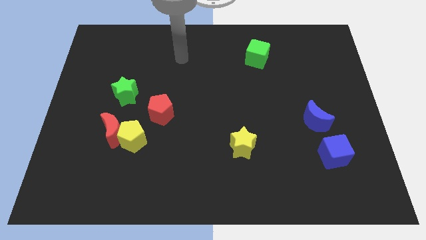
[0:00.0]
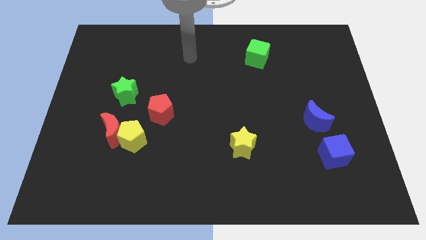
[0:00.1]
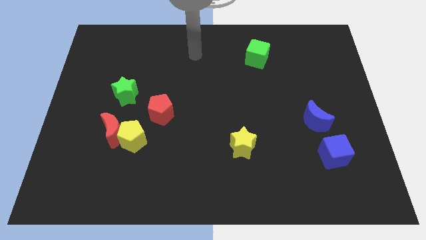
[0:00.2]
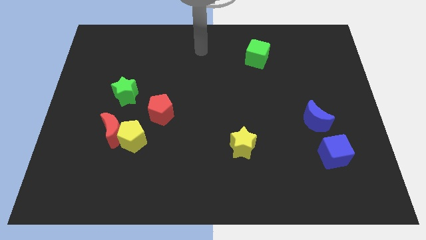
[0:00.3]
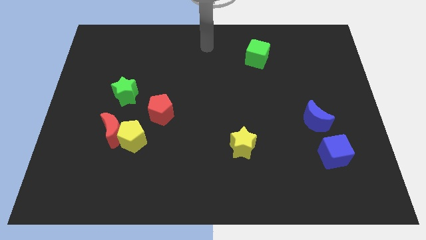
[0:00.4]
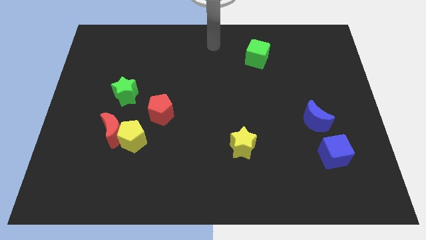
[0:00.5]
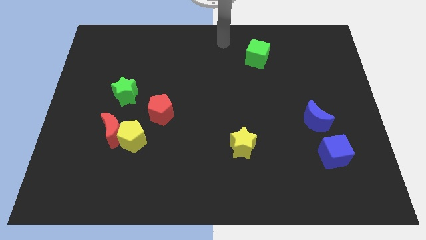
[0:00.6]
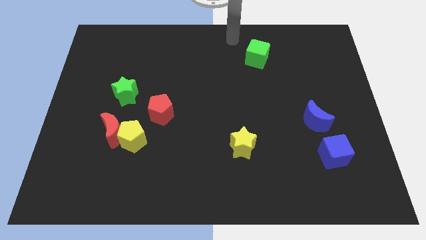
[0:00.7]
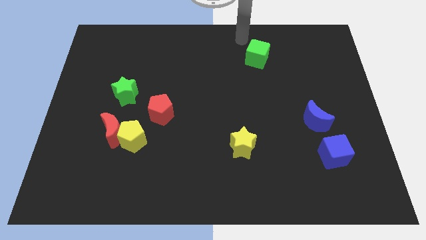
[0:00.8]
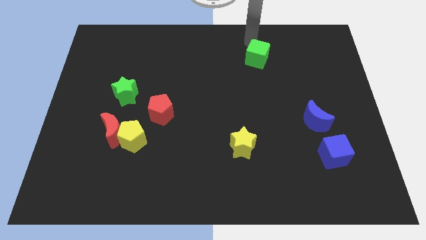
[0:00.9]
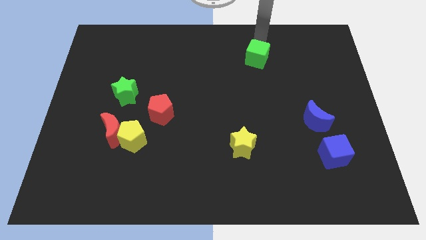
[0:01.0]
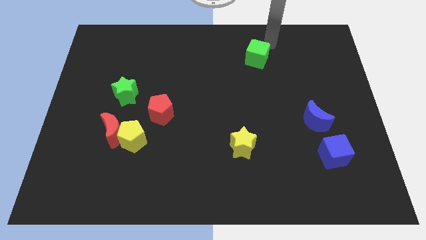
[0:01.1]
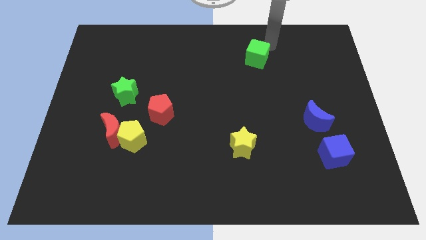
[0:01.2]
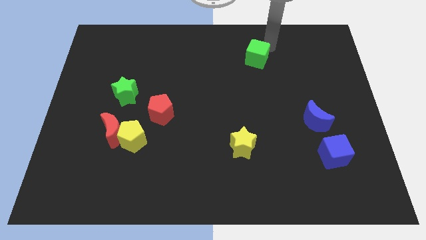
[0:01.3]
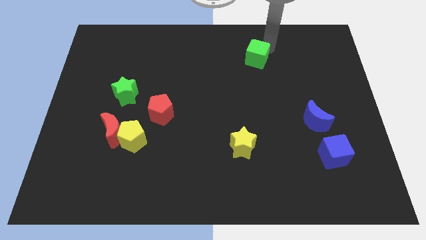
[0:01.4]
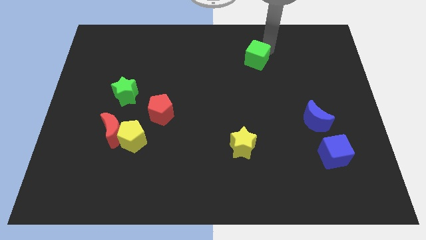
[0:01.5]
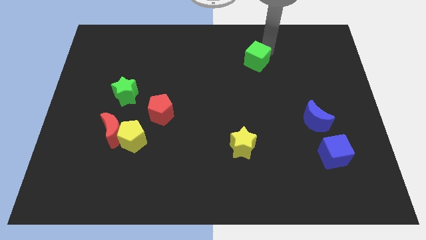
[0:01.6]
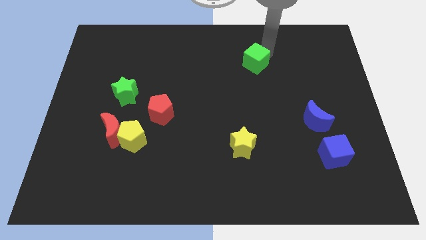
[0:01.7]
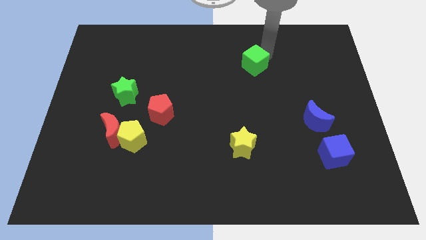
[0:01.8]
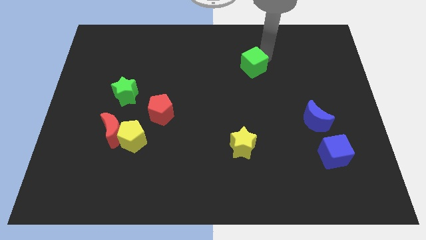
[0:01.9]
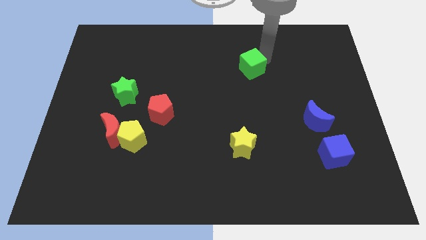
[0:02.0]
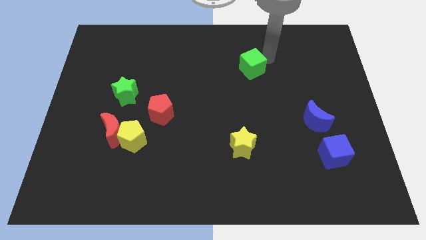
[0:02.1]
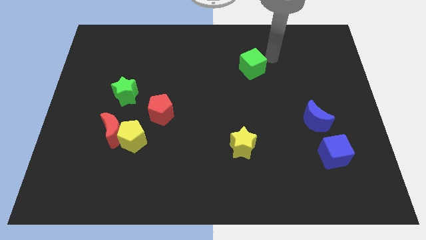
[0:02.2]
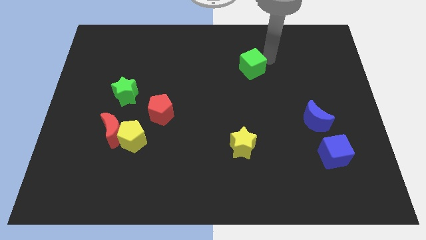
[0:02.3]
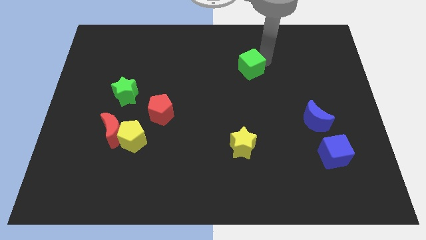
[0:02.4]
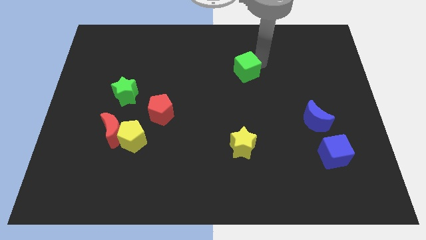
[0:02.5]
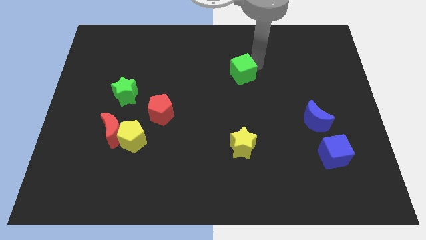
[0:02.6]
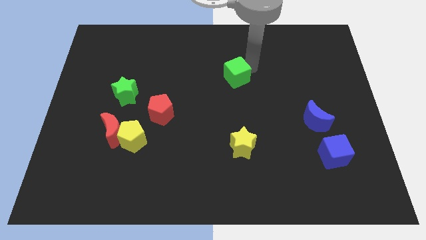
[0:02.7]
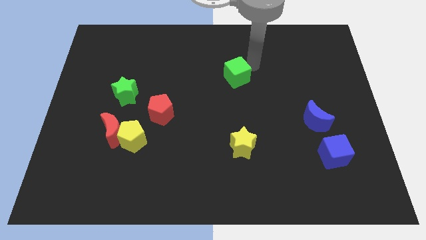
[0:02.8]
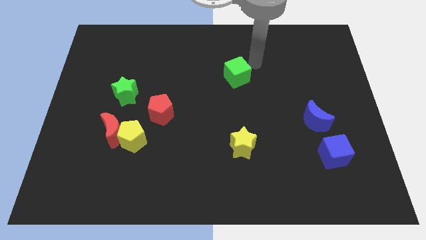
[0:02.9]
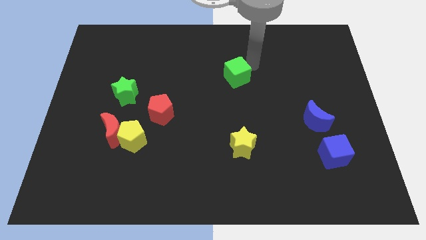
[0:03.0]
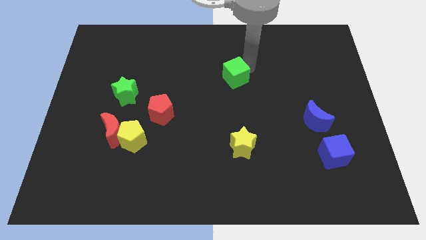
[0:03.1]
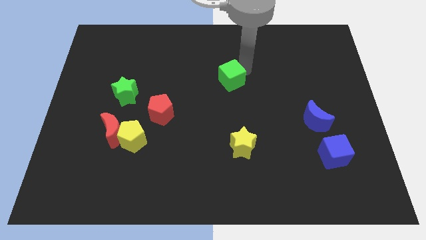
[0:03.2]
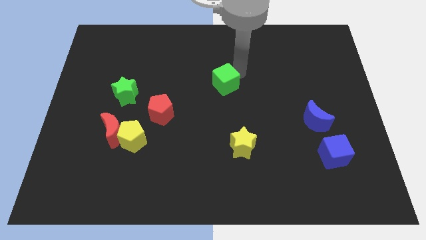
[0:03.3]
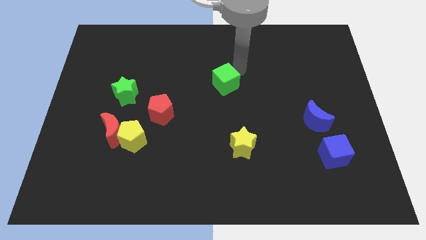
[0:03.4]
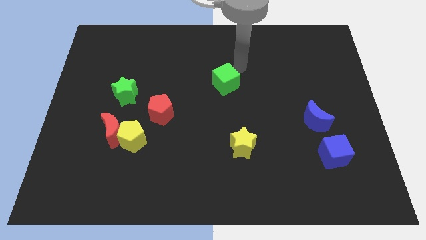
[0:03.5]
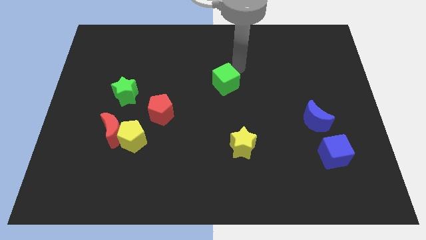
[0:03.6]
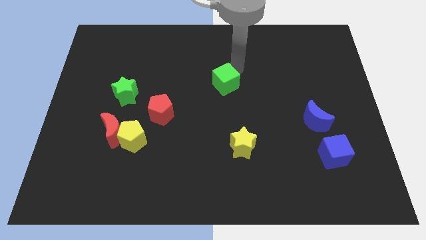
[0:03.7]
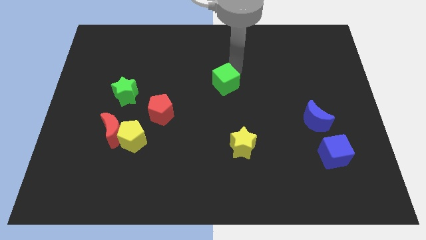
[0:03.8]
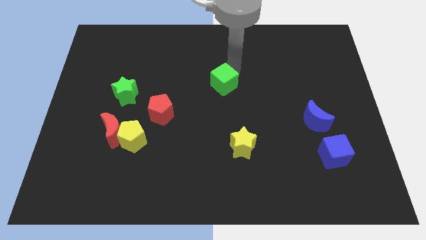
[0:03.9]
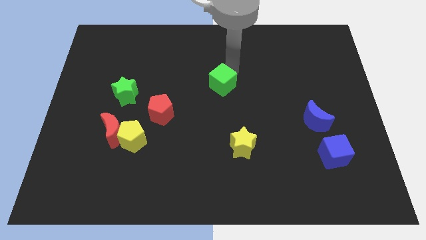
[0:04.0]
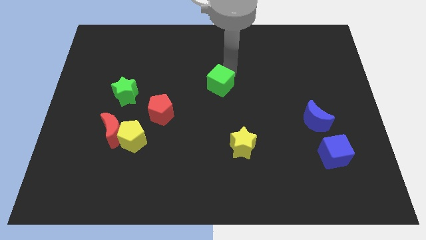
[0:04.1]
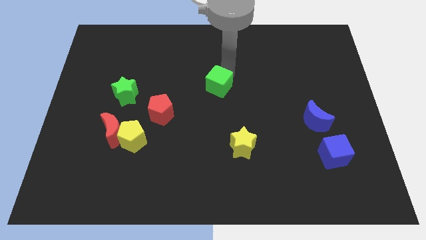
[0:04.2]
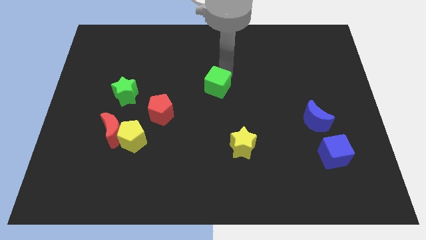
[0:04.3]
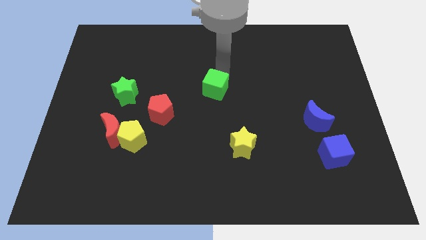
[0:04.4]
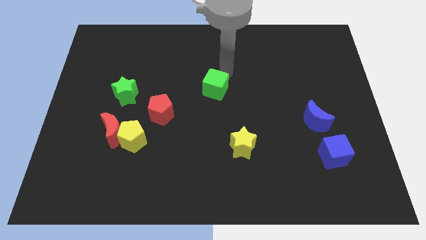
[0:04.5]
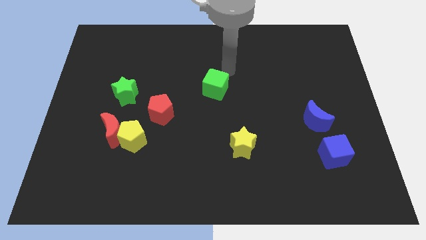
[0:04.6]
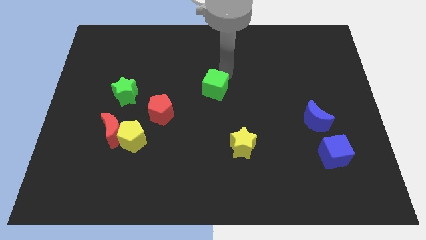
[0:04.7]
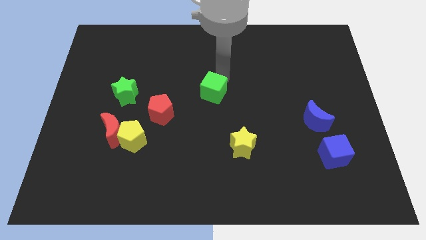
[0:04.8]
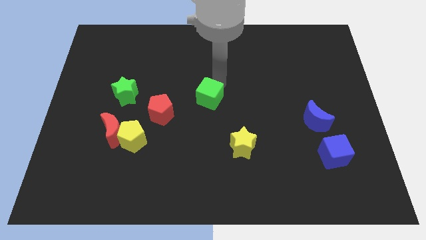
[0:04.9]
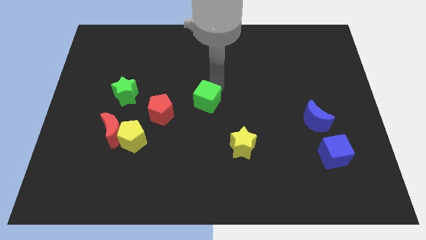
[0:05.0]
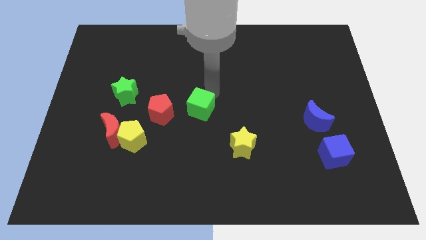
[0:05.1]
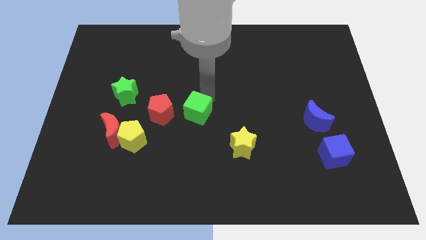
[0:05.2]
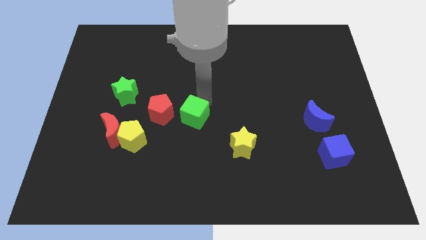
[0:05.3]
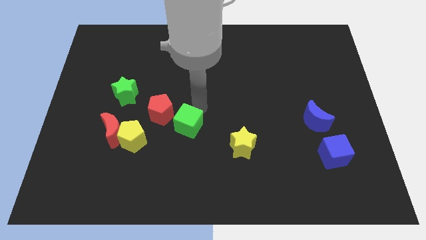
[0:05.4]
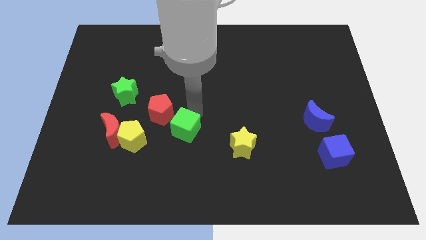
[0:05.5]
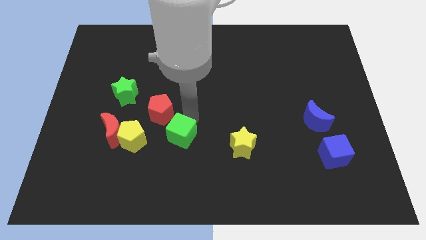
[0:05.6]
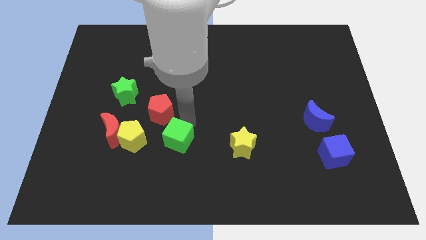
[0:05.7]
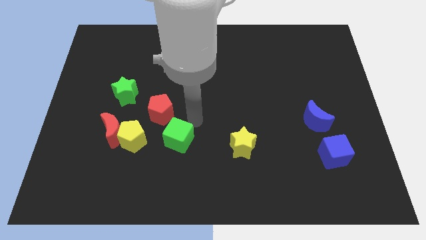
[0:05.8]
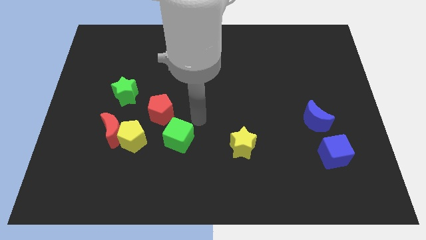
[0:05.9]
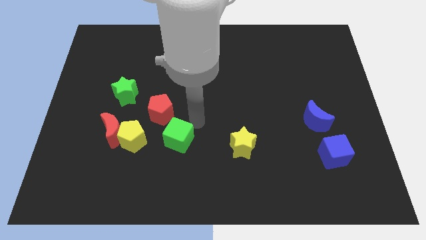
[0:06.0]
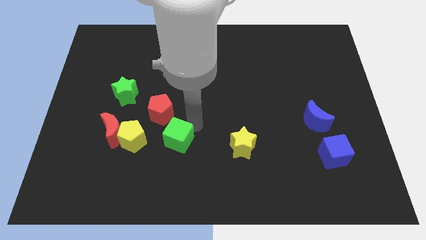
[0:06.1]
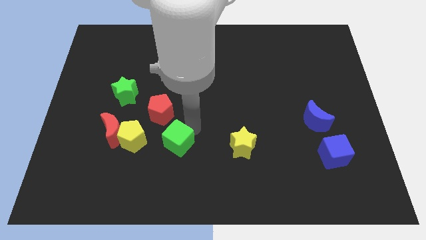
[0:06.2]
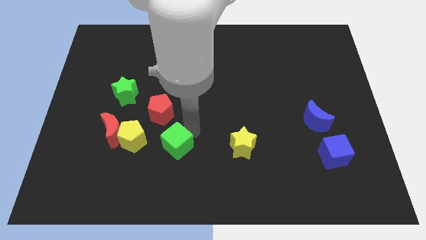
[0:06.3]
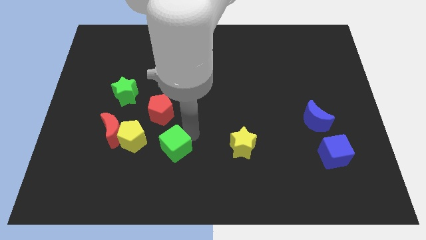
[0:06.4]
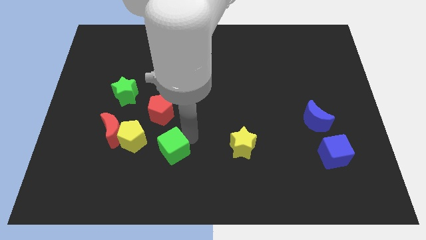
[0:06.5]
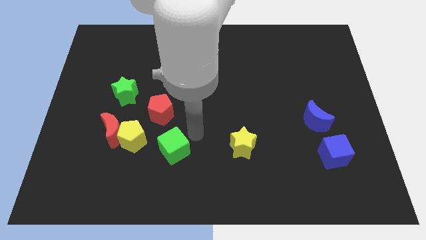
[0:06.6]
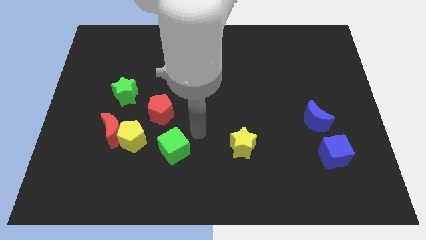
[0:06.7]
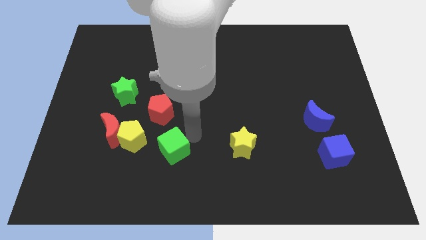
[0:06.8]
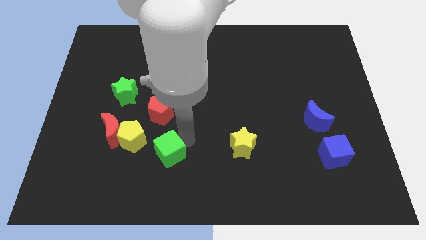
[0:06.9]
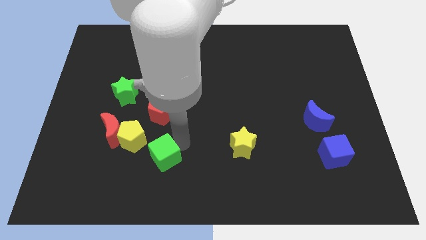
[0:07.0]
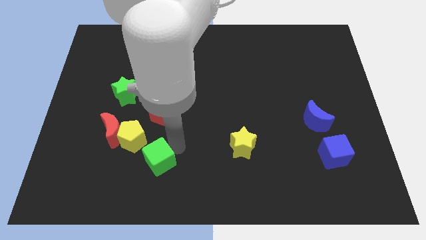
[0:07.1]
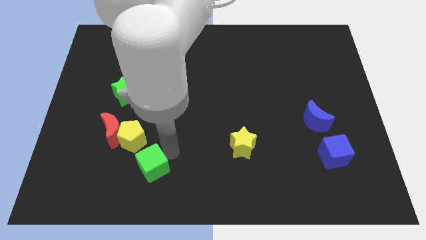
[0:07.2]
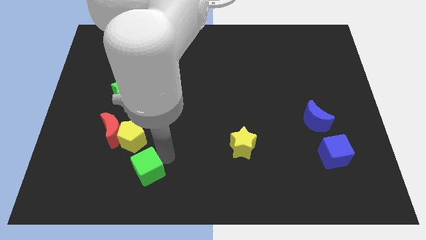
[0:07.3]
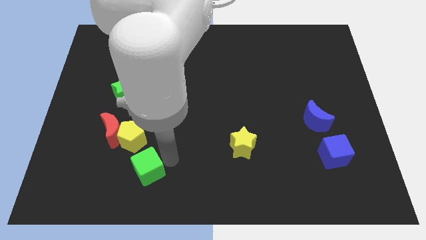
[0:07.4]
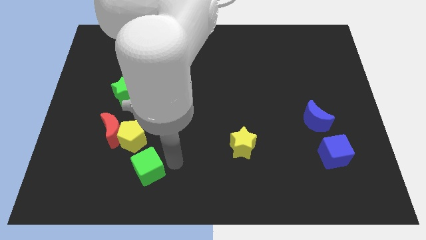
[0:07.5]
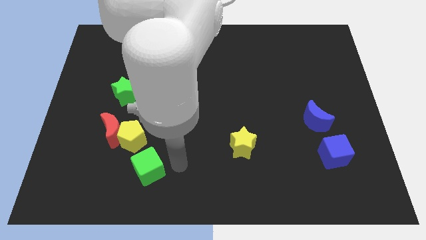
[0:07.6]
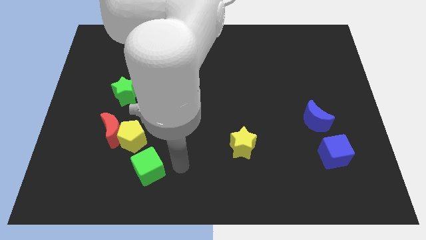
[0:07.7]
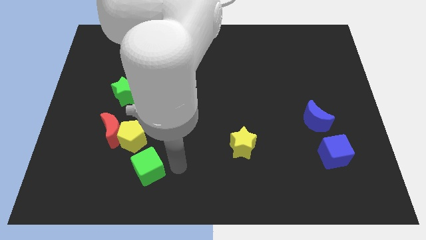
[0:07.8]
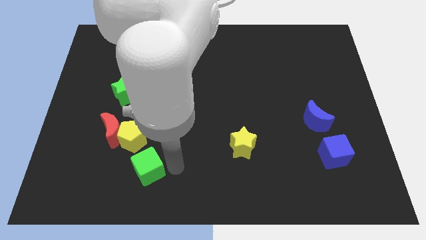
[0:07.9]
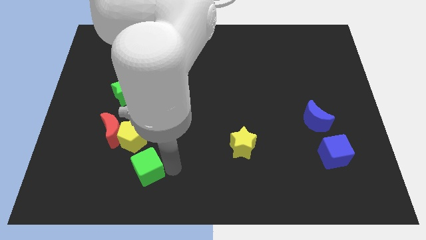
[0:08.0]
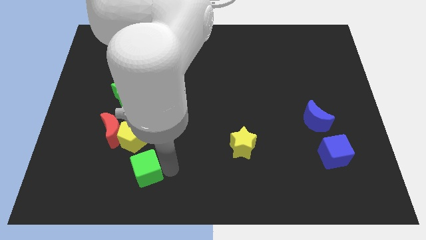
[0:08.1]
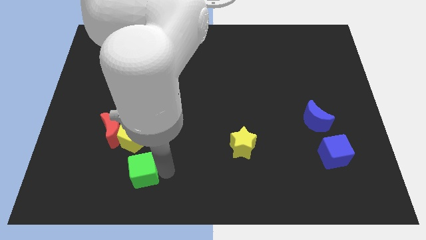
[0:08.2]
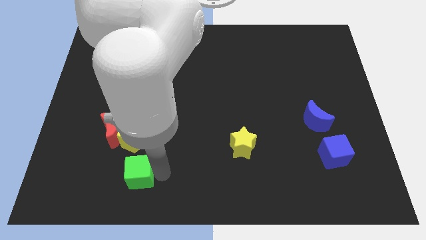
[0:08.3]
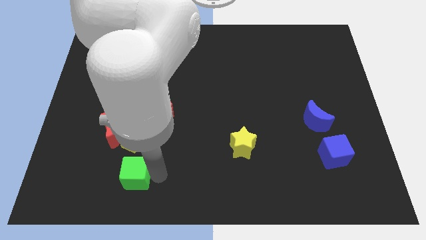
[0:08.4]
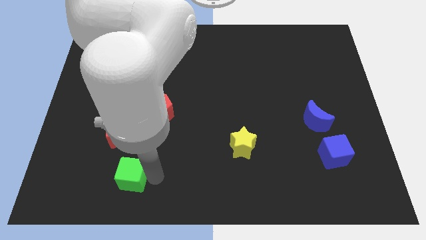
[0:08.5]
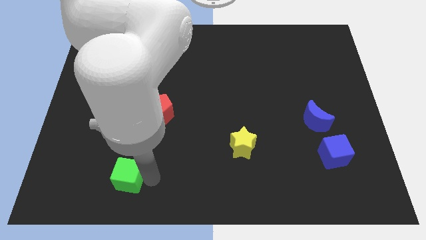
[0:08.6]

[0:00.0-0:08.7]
put the green cube to the bottom side of the red moon
